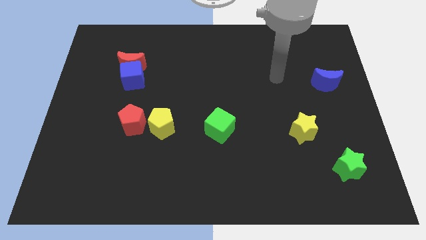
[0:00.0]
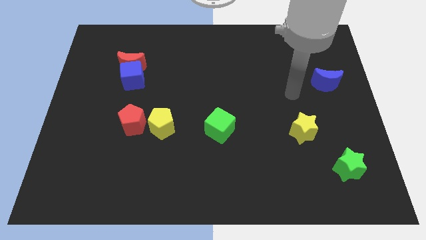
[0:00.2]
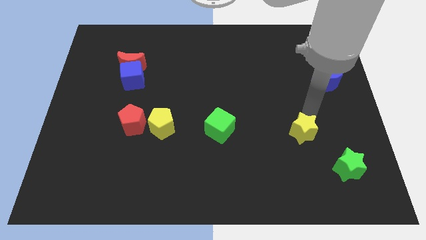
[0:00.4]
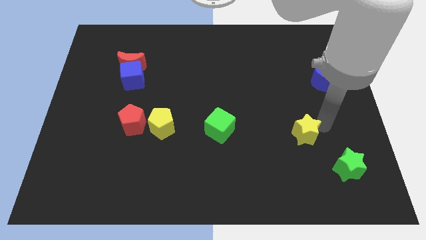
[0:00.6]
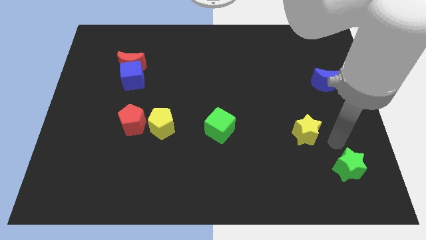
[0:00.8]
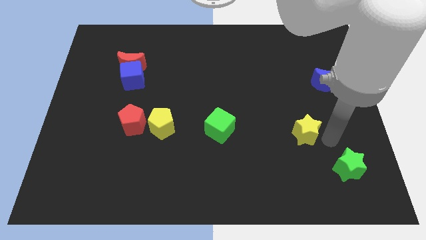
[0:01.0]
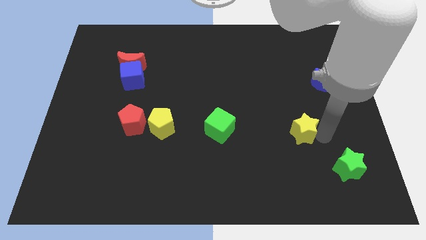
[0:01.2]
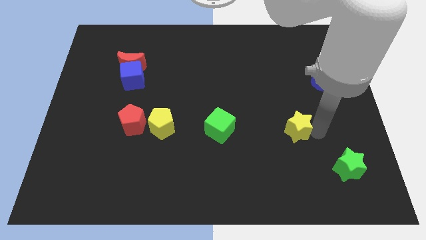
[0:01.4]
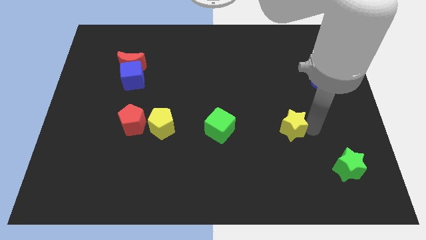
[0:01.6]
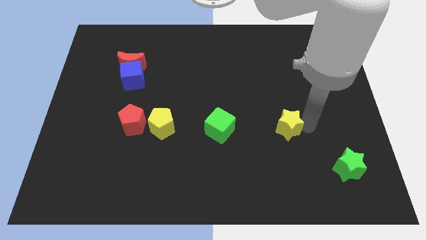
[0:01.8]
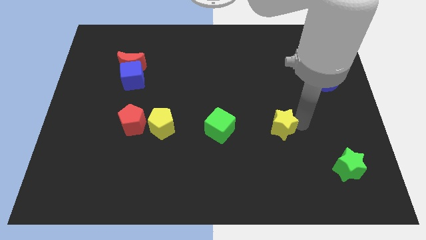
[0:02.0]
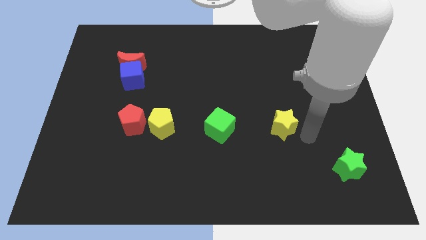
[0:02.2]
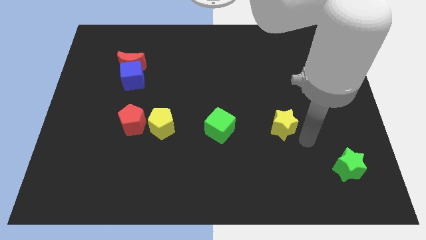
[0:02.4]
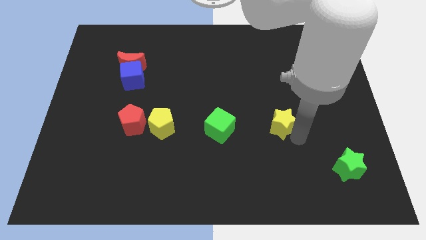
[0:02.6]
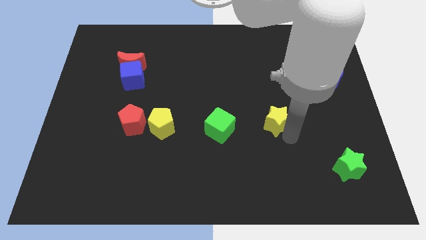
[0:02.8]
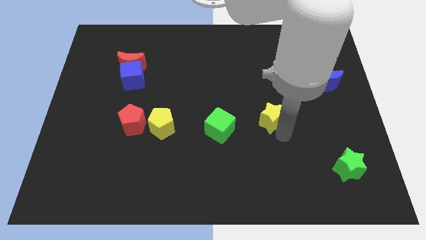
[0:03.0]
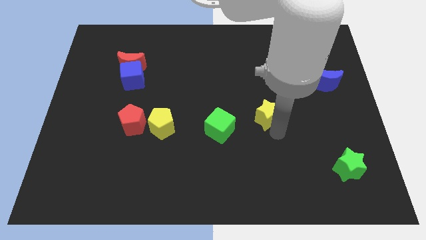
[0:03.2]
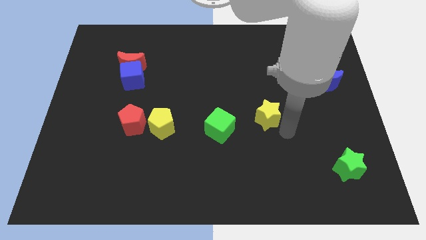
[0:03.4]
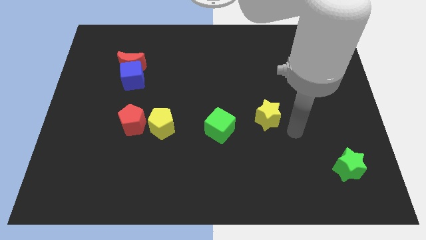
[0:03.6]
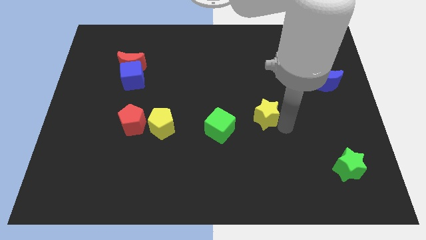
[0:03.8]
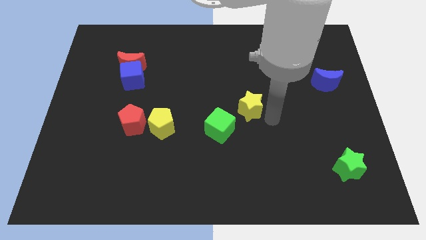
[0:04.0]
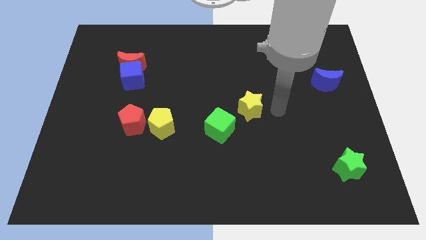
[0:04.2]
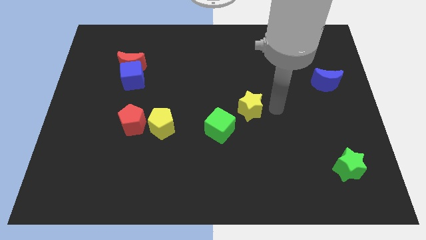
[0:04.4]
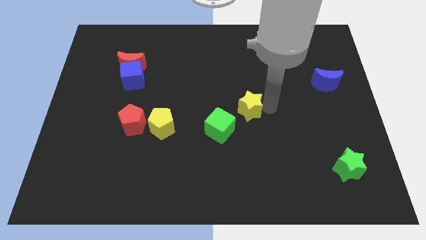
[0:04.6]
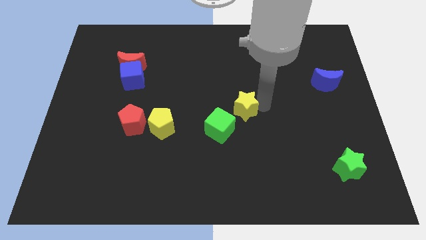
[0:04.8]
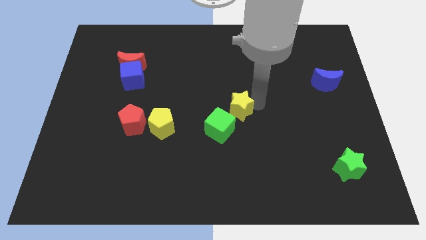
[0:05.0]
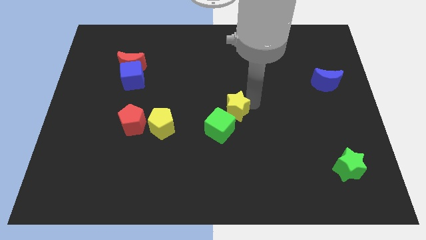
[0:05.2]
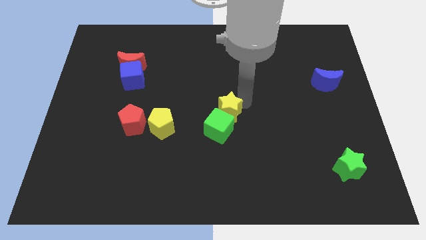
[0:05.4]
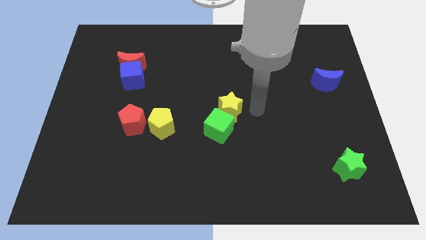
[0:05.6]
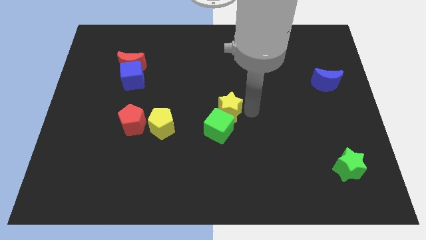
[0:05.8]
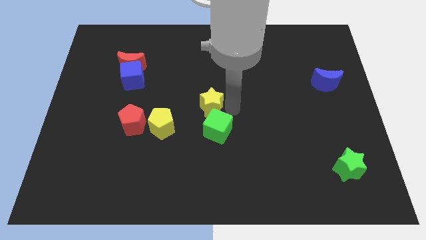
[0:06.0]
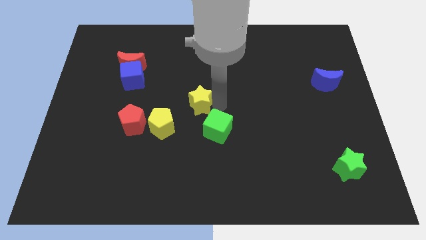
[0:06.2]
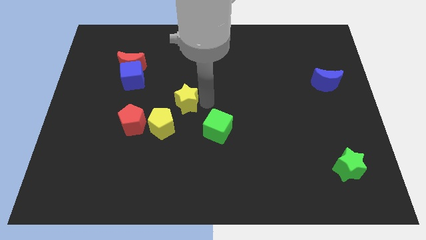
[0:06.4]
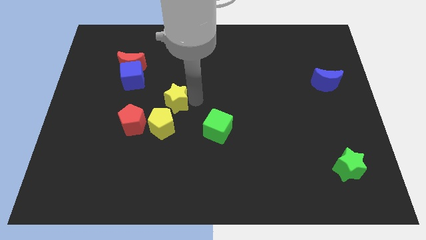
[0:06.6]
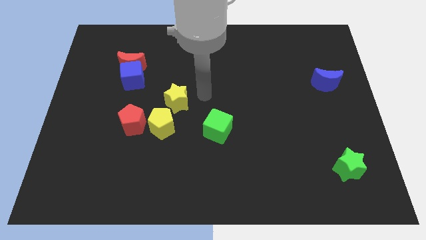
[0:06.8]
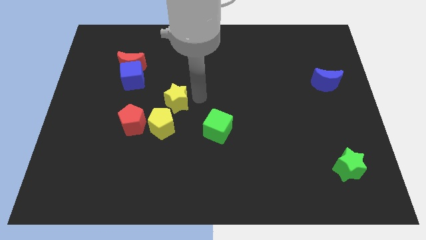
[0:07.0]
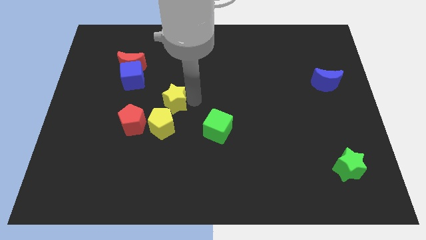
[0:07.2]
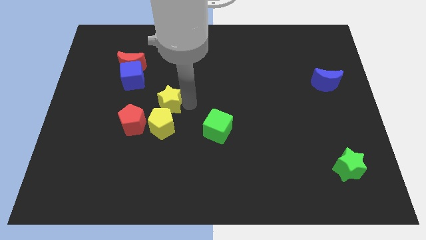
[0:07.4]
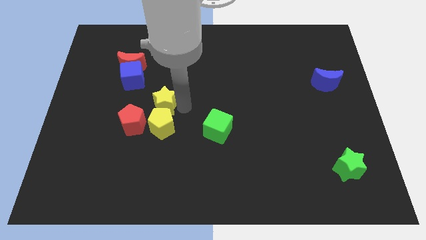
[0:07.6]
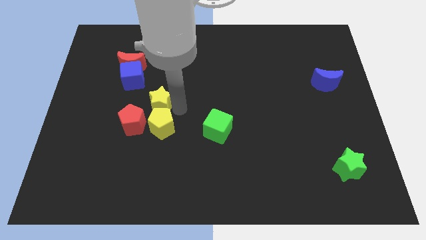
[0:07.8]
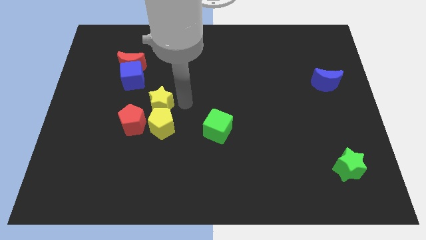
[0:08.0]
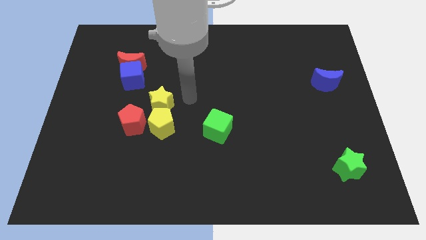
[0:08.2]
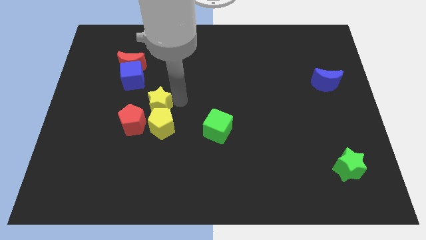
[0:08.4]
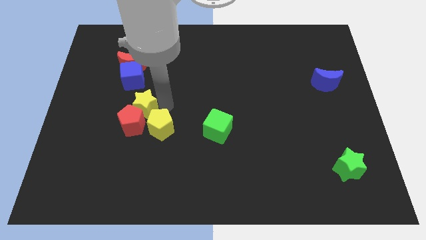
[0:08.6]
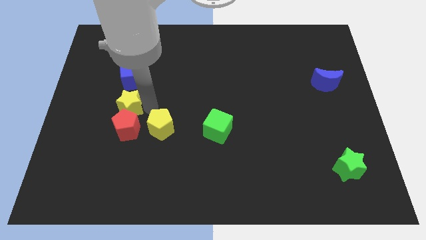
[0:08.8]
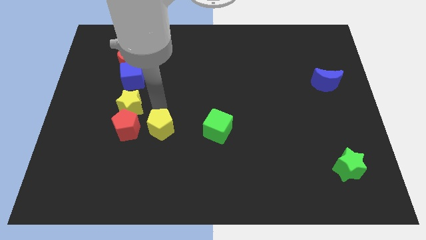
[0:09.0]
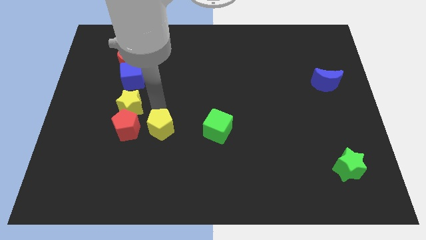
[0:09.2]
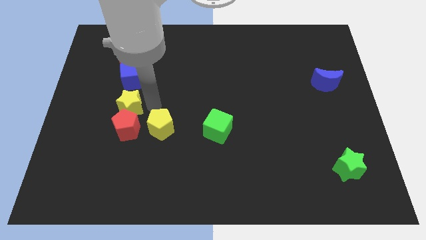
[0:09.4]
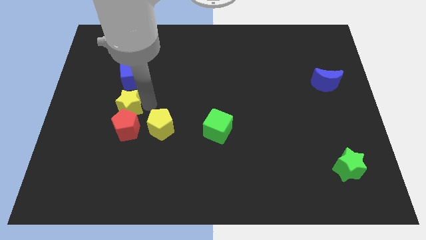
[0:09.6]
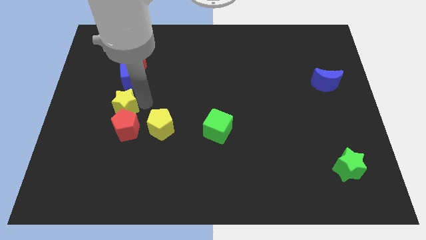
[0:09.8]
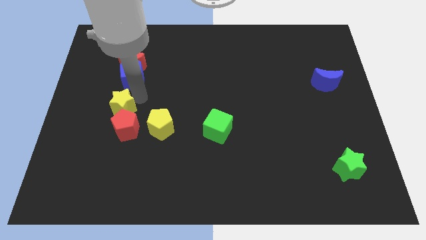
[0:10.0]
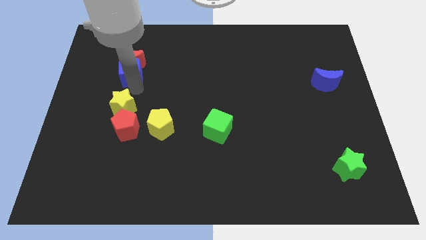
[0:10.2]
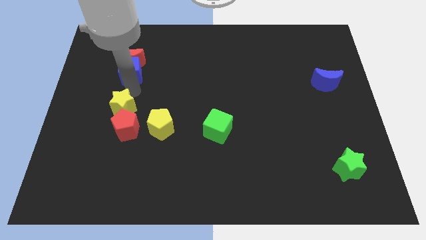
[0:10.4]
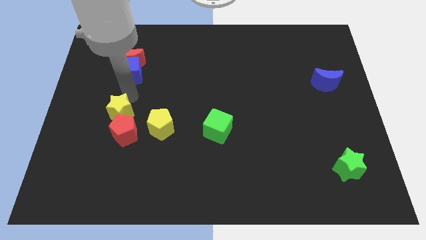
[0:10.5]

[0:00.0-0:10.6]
put the yellow star just left of the yellow pentagon

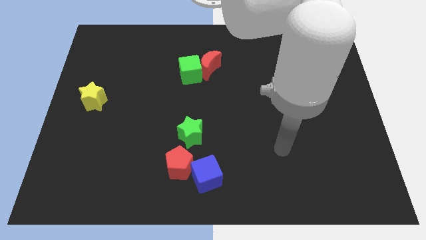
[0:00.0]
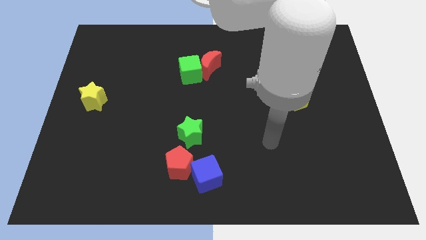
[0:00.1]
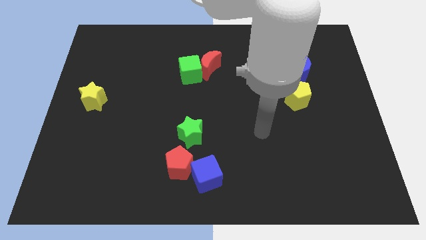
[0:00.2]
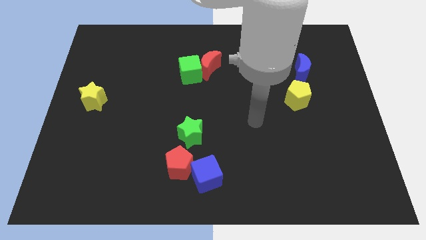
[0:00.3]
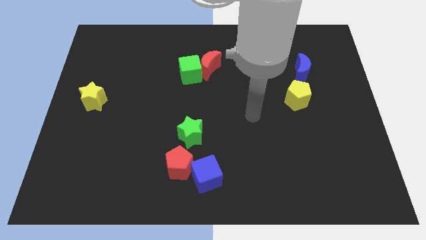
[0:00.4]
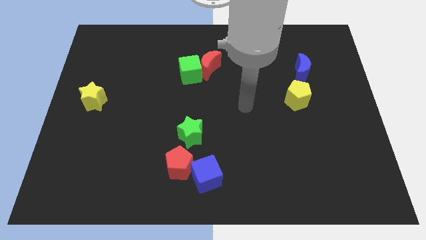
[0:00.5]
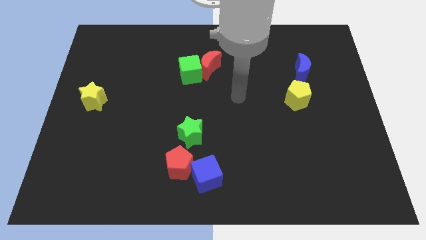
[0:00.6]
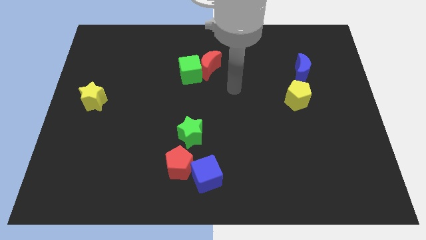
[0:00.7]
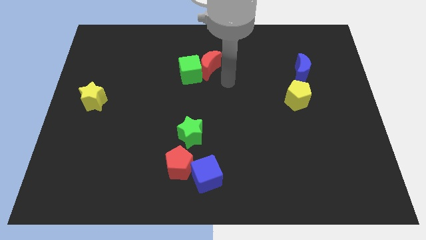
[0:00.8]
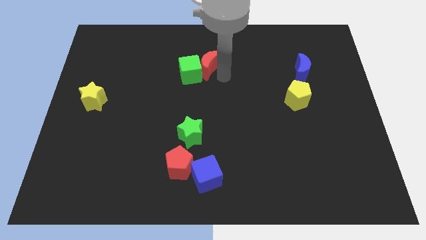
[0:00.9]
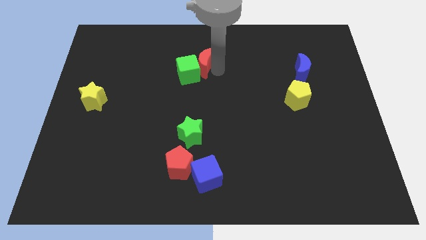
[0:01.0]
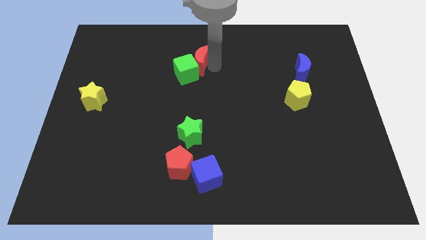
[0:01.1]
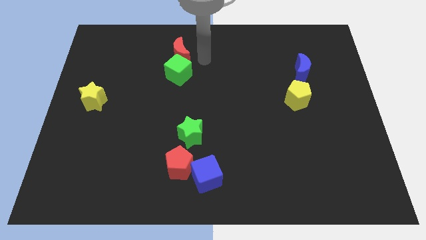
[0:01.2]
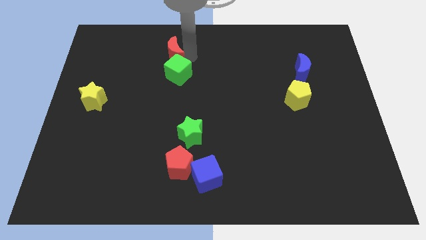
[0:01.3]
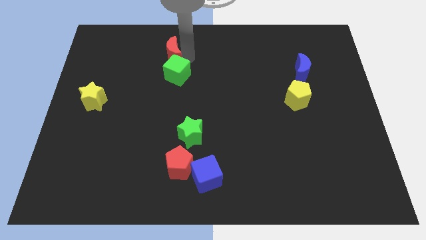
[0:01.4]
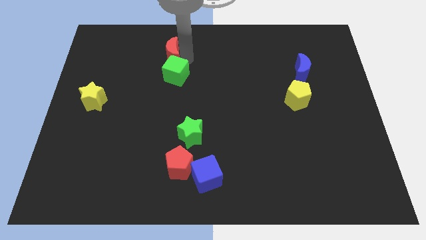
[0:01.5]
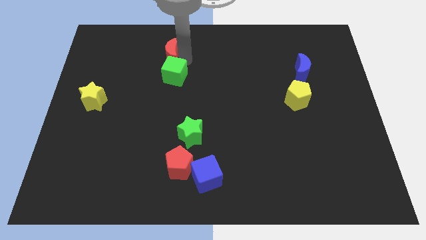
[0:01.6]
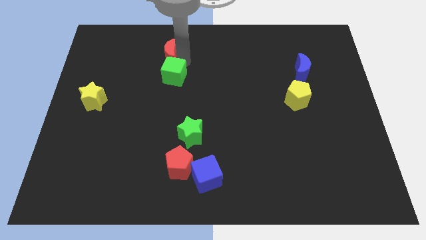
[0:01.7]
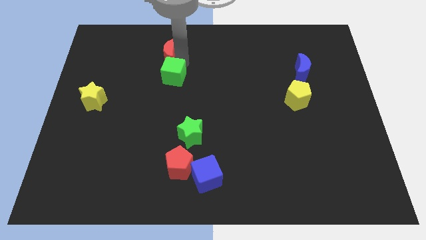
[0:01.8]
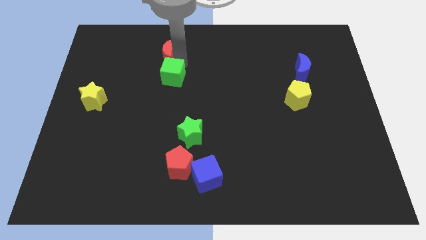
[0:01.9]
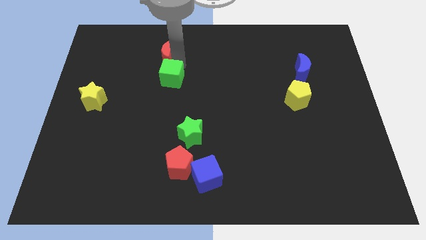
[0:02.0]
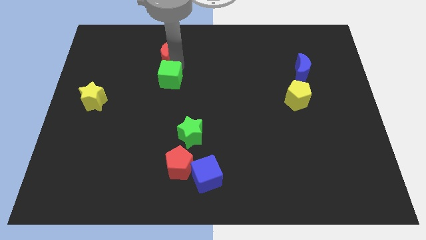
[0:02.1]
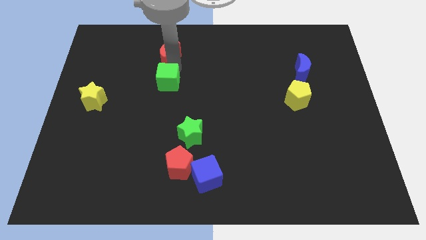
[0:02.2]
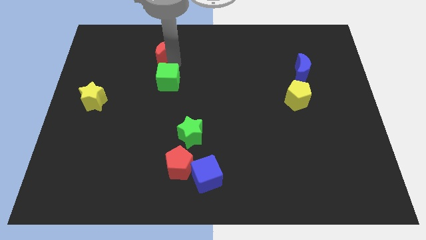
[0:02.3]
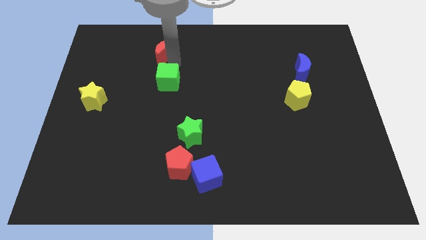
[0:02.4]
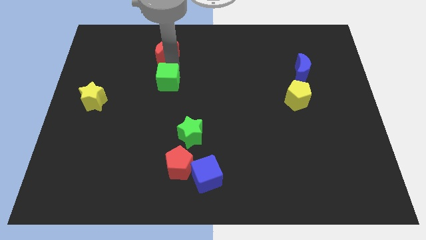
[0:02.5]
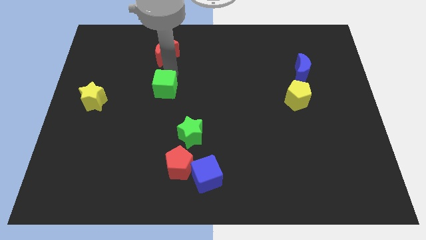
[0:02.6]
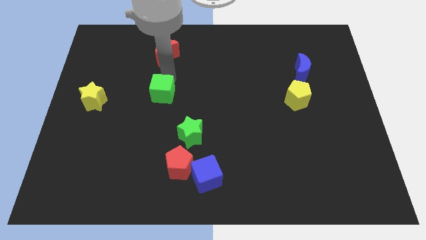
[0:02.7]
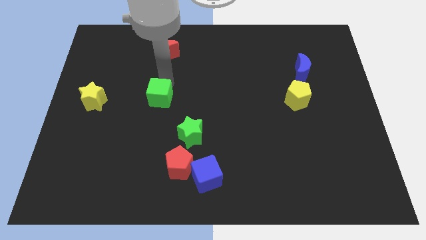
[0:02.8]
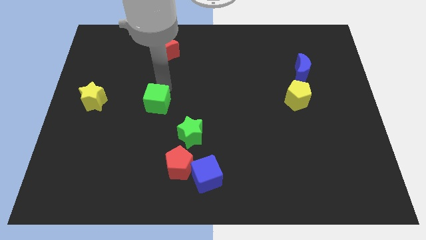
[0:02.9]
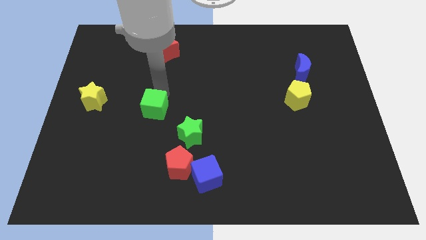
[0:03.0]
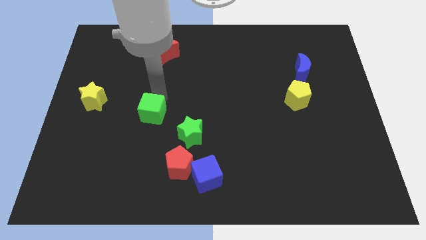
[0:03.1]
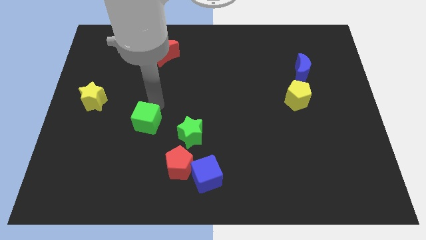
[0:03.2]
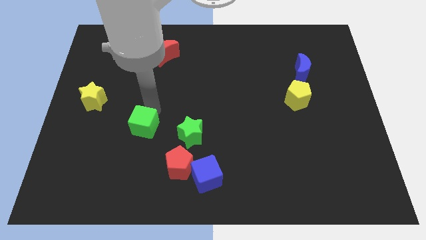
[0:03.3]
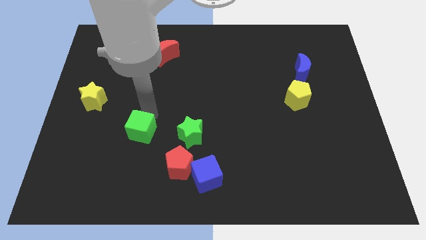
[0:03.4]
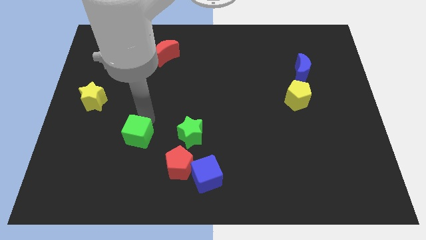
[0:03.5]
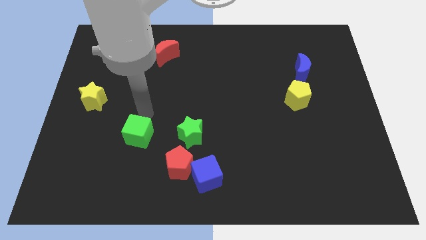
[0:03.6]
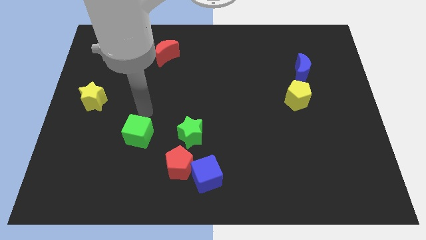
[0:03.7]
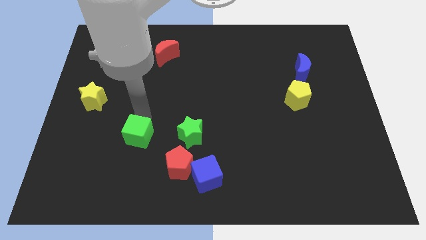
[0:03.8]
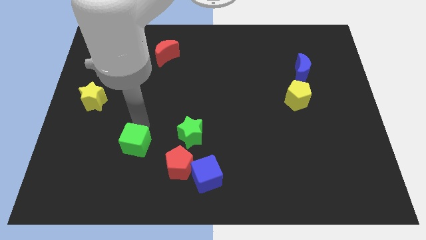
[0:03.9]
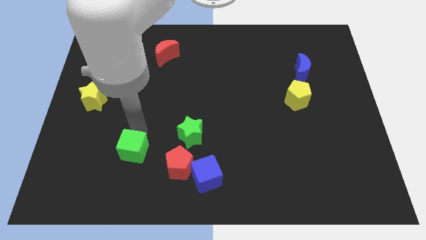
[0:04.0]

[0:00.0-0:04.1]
move the green cube just left of the red pentagon
